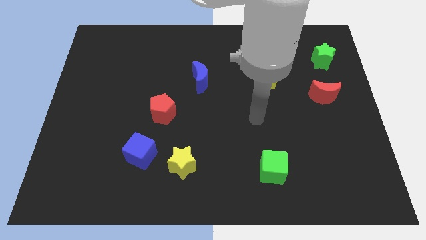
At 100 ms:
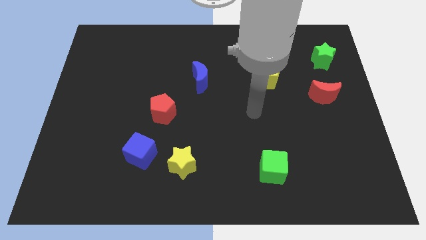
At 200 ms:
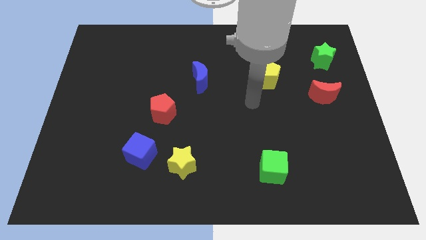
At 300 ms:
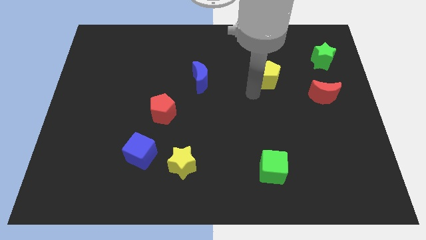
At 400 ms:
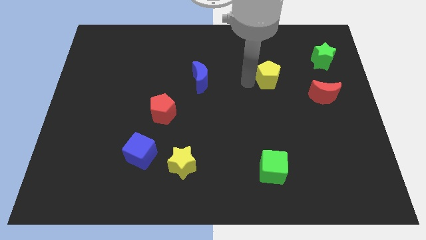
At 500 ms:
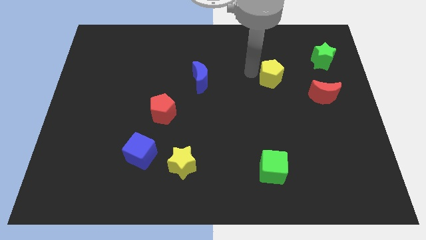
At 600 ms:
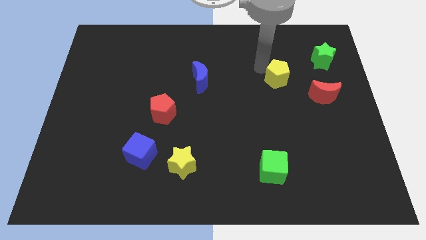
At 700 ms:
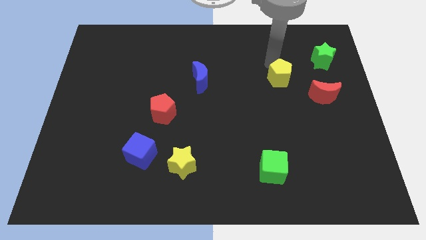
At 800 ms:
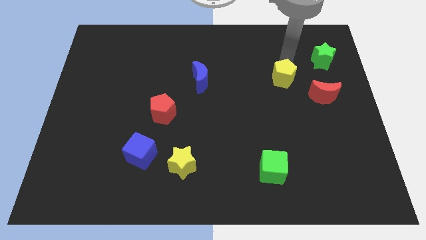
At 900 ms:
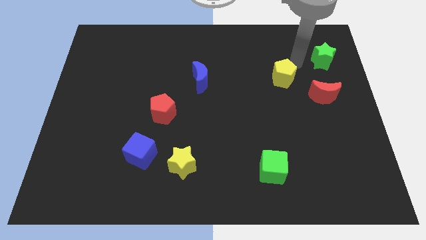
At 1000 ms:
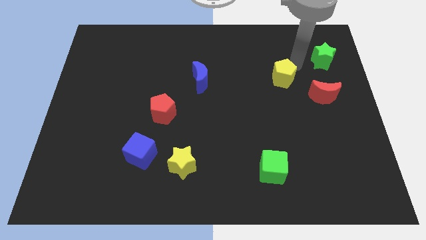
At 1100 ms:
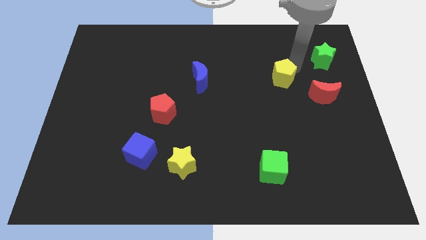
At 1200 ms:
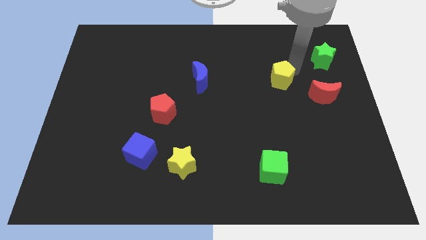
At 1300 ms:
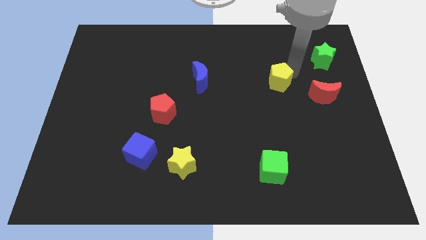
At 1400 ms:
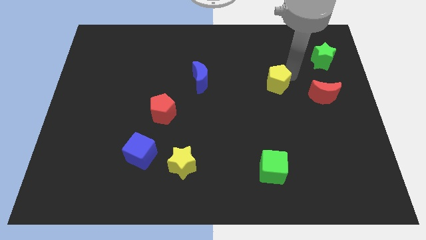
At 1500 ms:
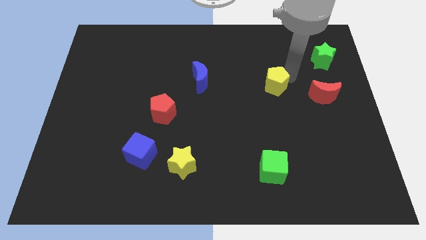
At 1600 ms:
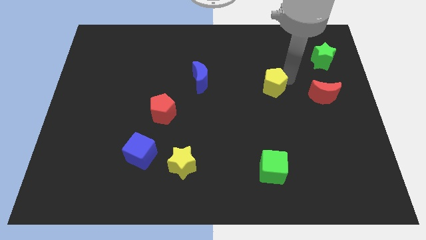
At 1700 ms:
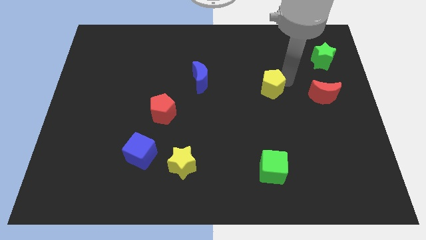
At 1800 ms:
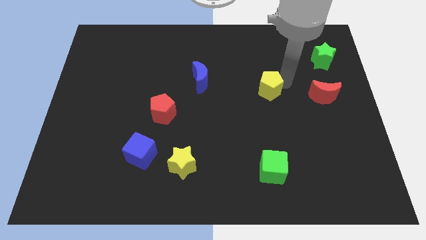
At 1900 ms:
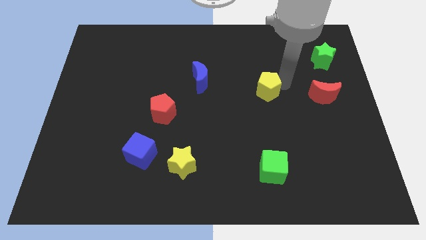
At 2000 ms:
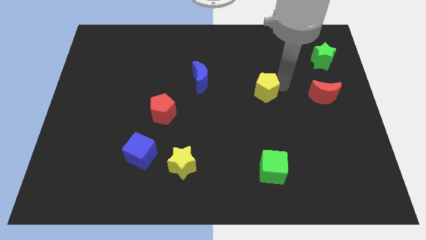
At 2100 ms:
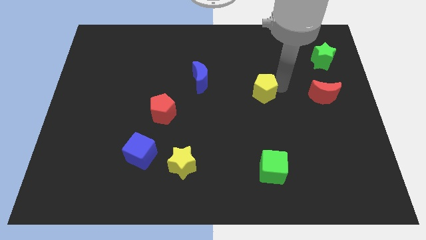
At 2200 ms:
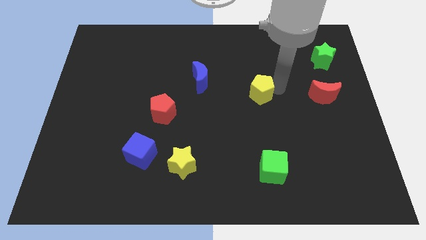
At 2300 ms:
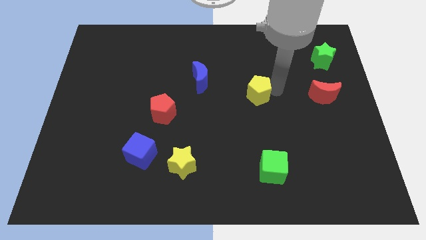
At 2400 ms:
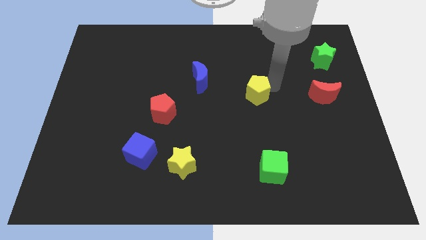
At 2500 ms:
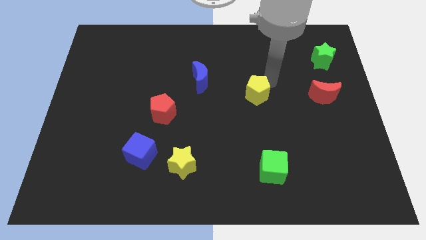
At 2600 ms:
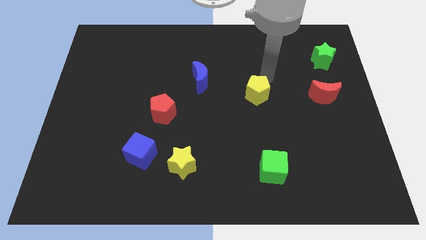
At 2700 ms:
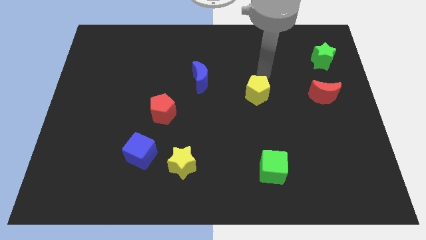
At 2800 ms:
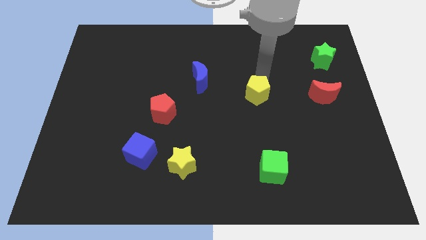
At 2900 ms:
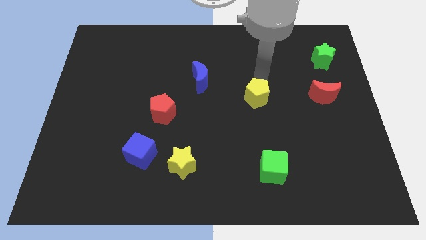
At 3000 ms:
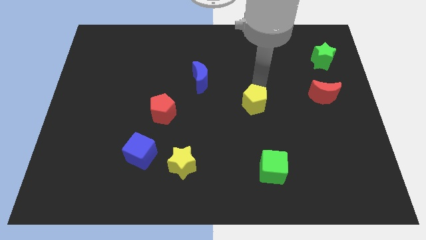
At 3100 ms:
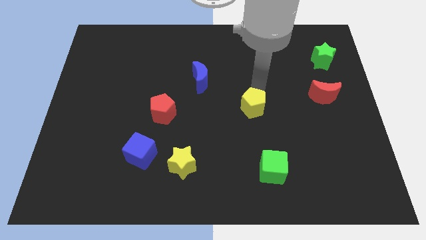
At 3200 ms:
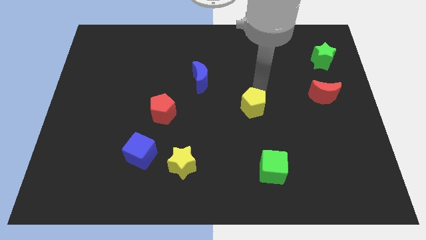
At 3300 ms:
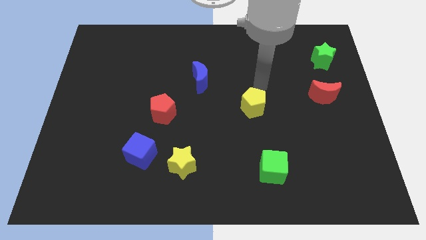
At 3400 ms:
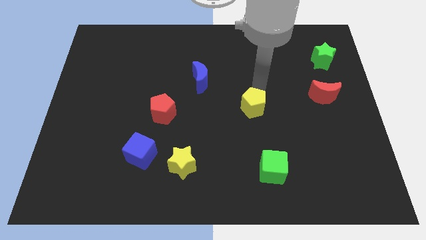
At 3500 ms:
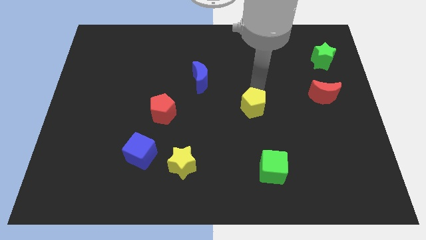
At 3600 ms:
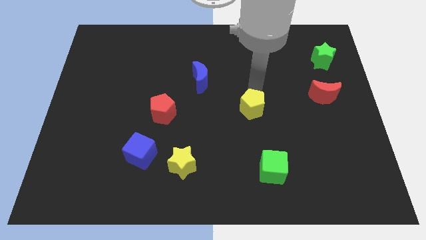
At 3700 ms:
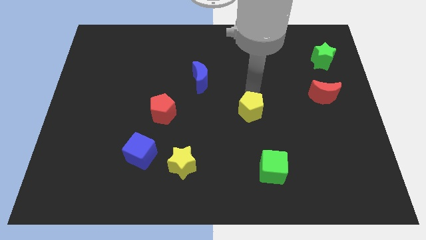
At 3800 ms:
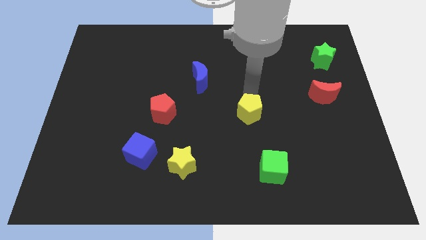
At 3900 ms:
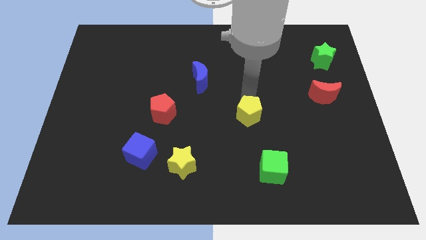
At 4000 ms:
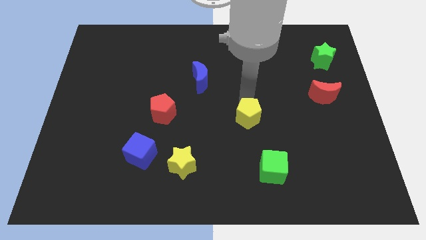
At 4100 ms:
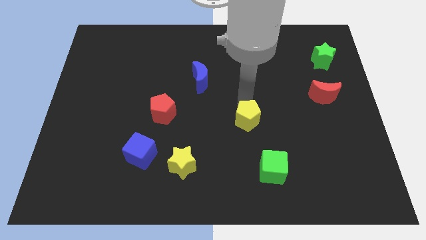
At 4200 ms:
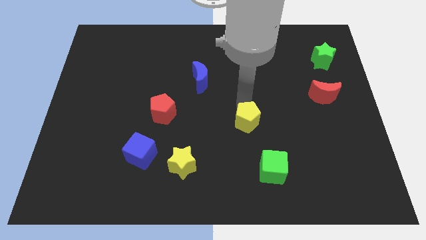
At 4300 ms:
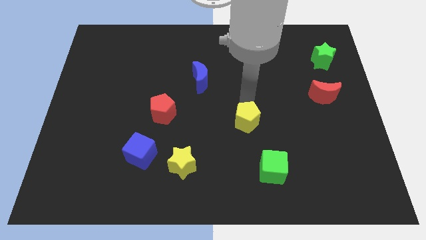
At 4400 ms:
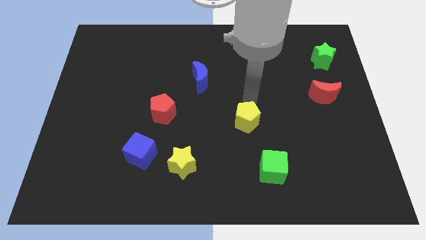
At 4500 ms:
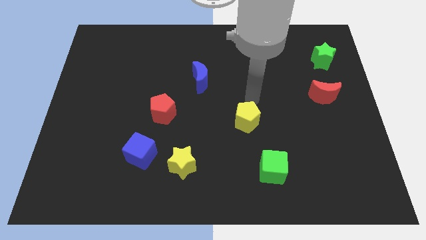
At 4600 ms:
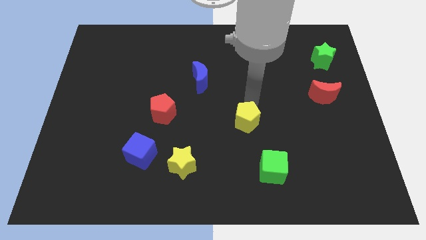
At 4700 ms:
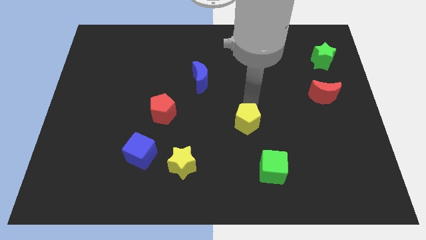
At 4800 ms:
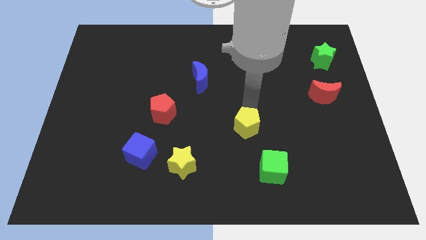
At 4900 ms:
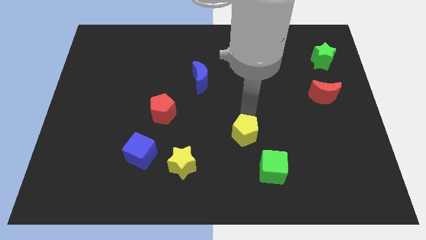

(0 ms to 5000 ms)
put the yellow pentagon to the top left side of the green cube

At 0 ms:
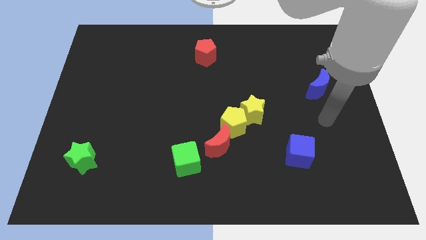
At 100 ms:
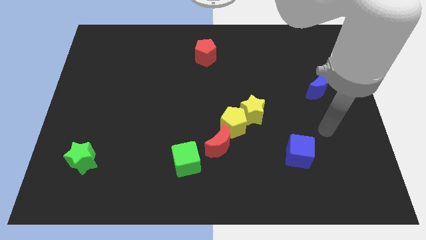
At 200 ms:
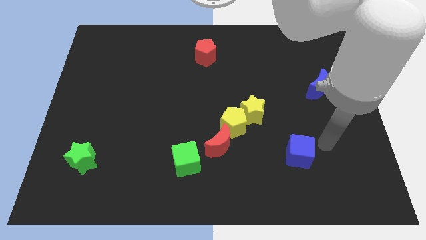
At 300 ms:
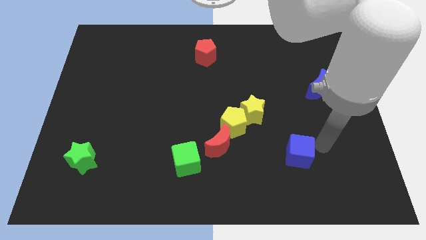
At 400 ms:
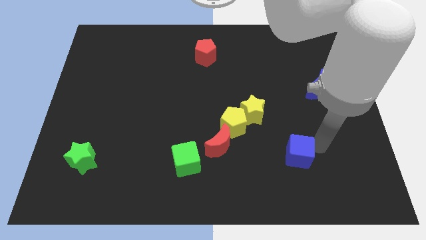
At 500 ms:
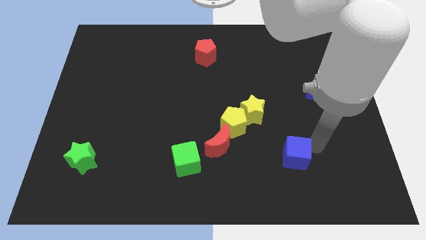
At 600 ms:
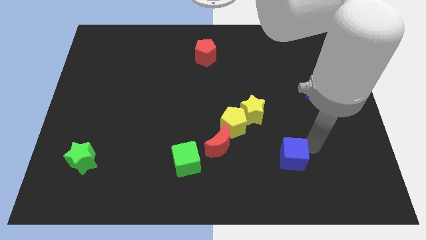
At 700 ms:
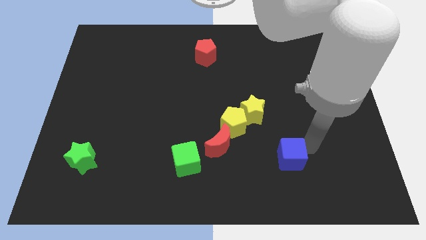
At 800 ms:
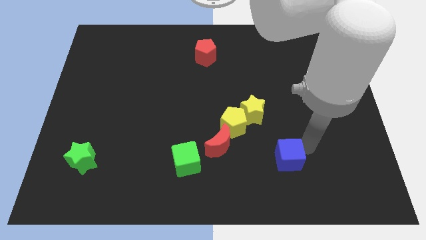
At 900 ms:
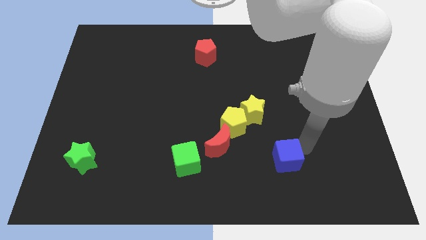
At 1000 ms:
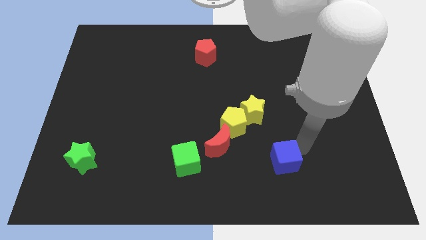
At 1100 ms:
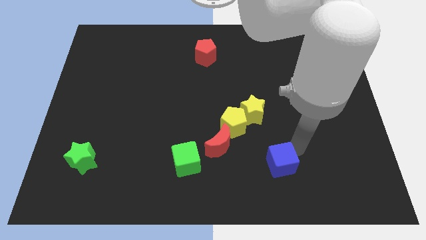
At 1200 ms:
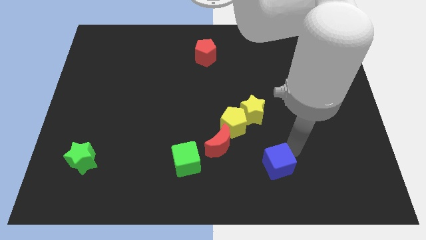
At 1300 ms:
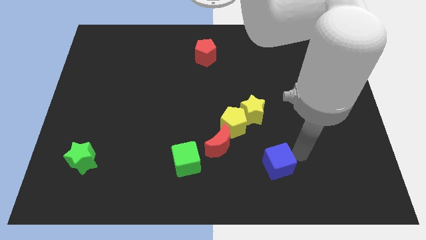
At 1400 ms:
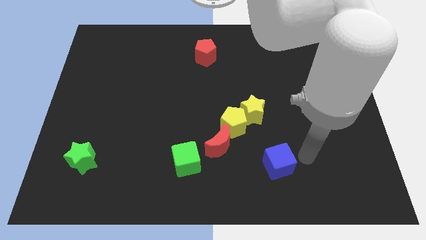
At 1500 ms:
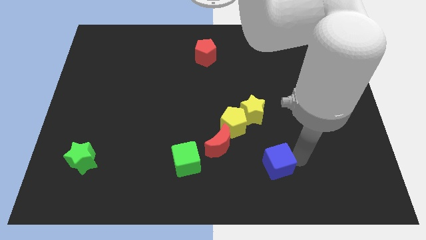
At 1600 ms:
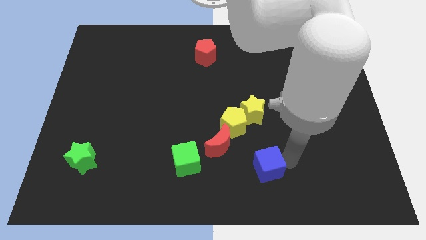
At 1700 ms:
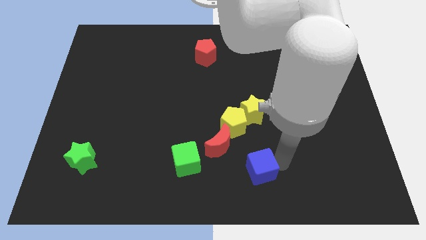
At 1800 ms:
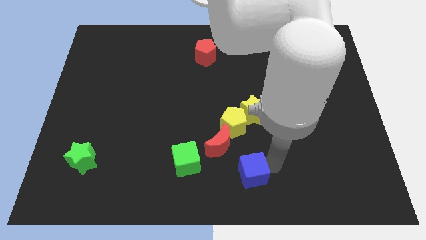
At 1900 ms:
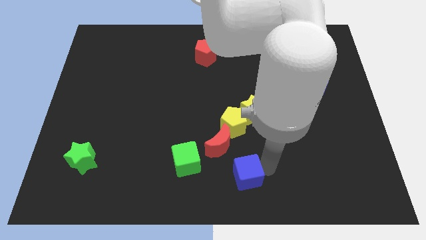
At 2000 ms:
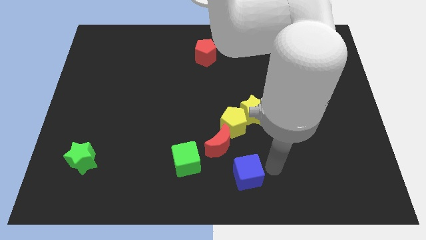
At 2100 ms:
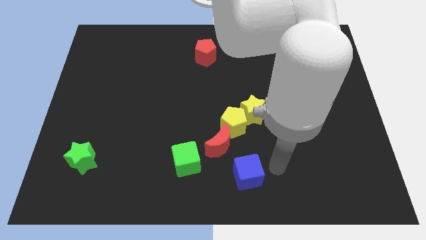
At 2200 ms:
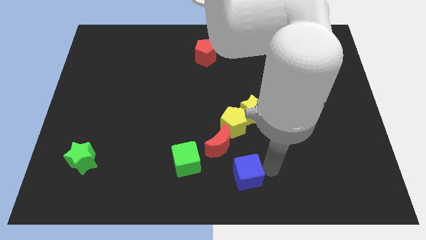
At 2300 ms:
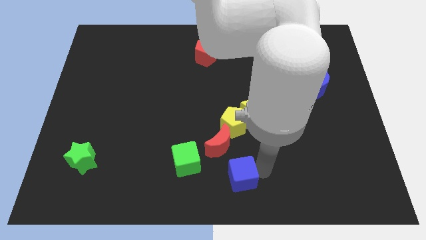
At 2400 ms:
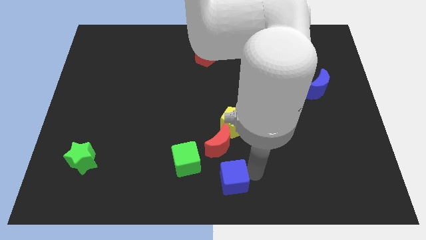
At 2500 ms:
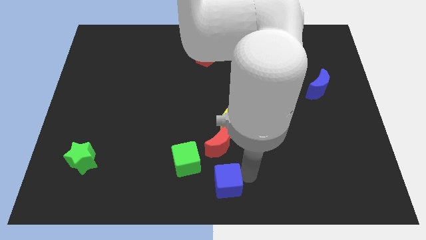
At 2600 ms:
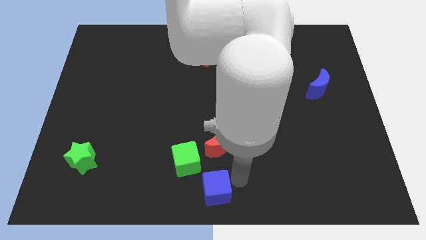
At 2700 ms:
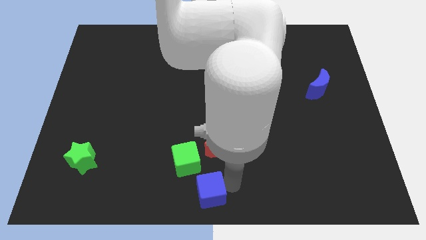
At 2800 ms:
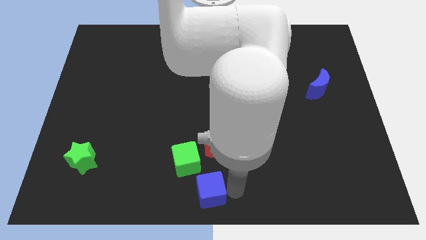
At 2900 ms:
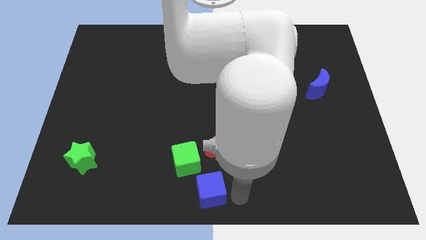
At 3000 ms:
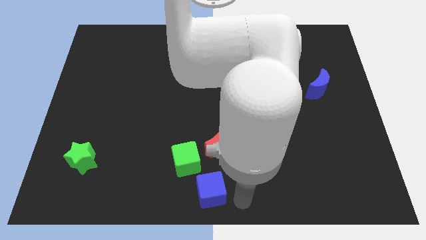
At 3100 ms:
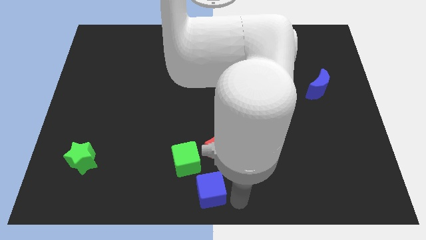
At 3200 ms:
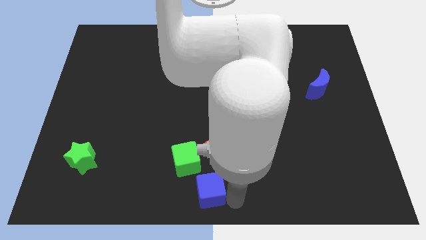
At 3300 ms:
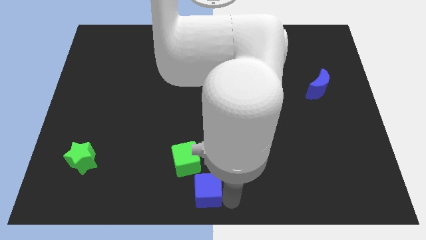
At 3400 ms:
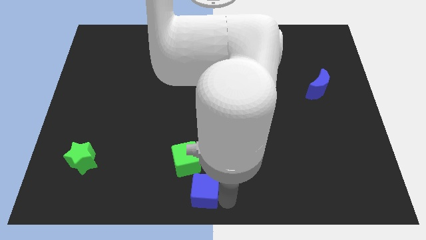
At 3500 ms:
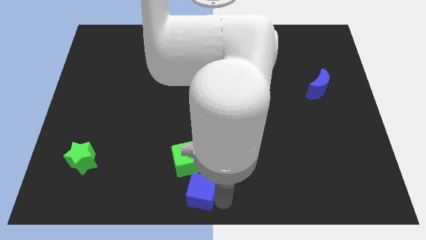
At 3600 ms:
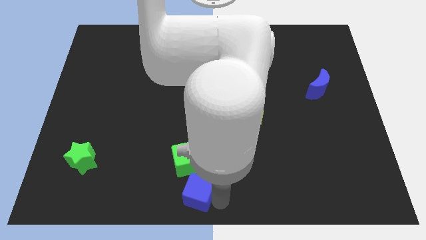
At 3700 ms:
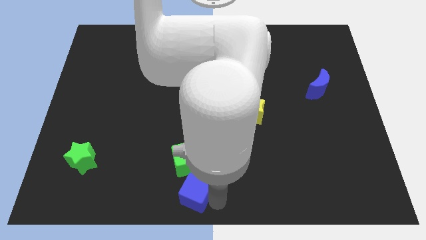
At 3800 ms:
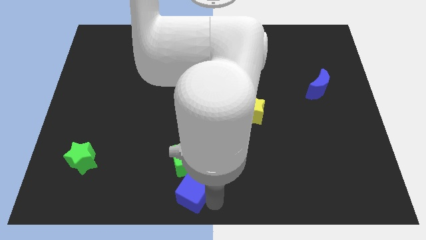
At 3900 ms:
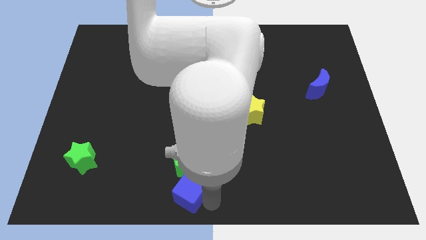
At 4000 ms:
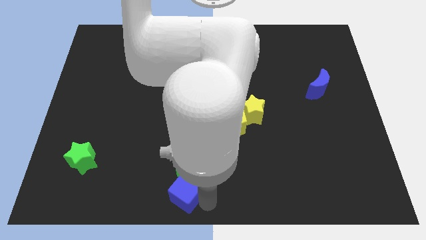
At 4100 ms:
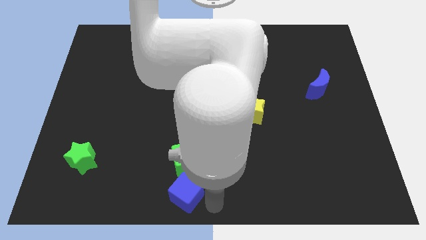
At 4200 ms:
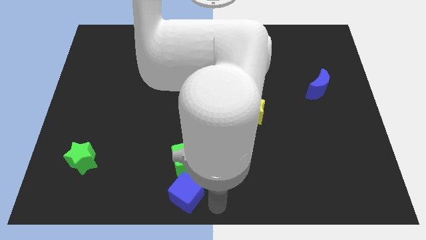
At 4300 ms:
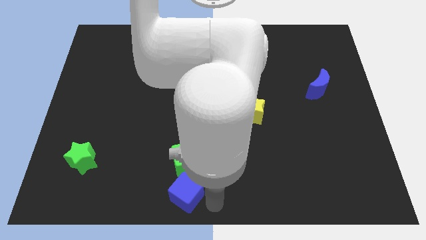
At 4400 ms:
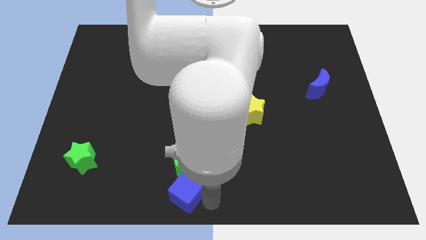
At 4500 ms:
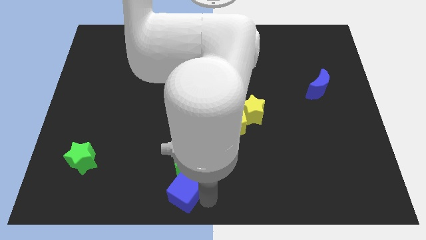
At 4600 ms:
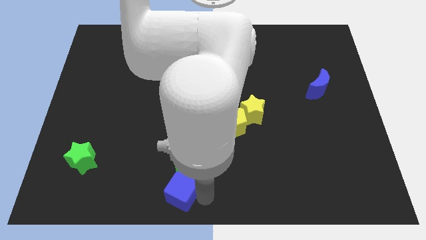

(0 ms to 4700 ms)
slide the blue cube diagonally down and to the left of the green cube
